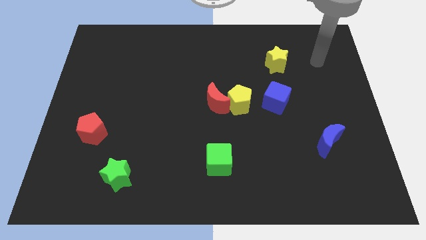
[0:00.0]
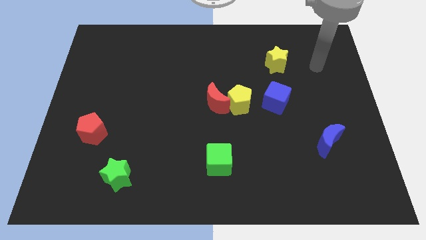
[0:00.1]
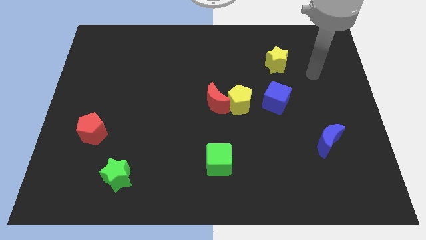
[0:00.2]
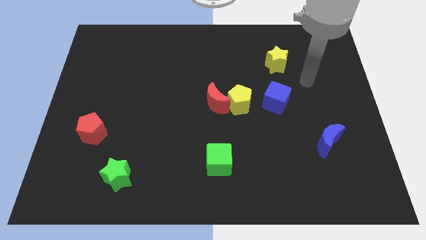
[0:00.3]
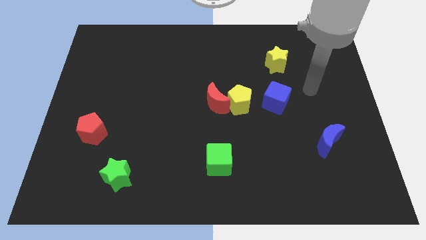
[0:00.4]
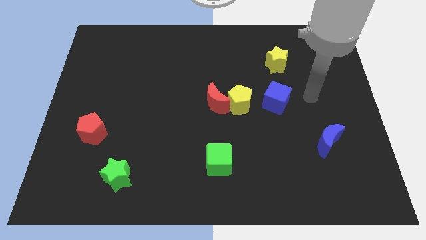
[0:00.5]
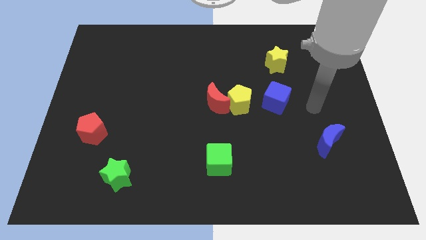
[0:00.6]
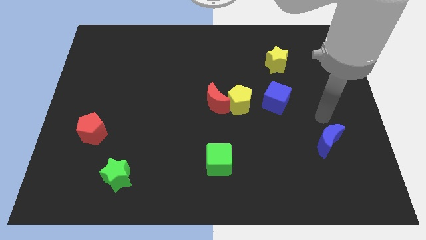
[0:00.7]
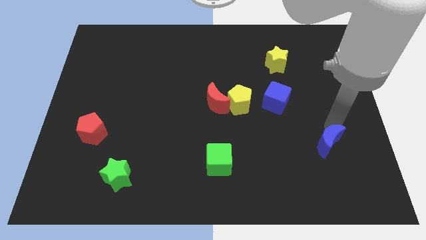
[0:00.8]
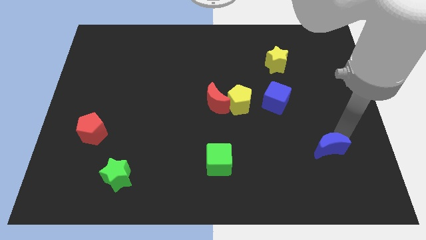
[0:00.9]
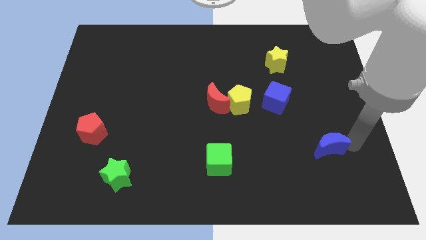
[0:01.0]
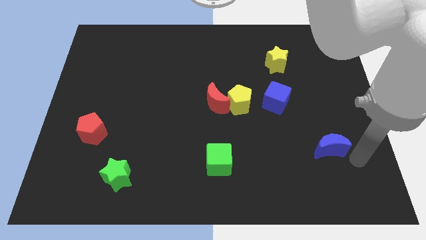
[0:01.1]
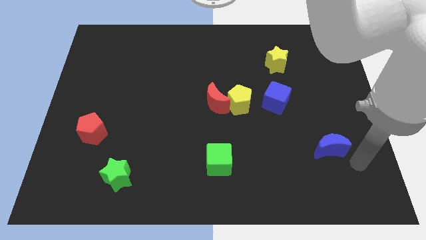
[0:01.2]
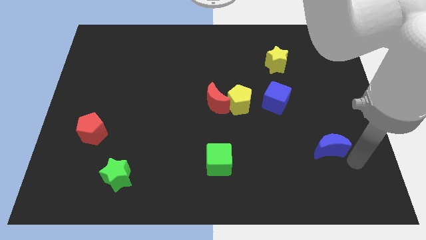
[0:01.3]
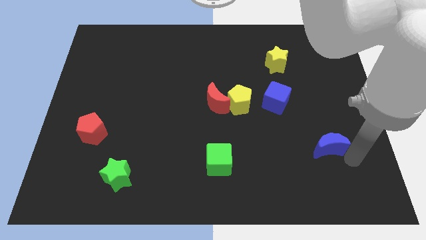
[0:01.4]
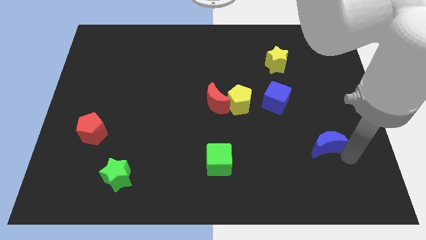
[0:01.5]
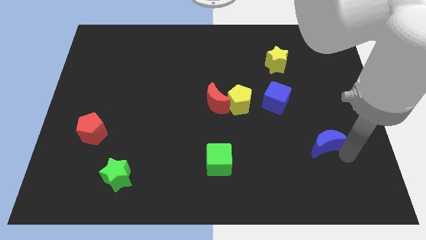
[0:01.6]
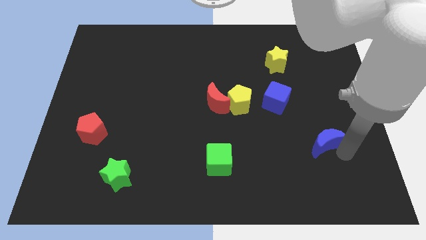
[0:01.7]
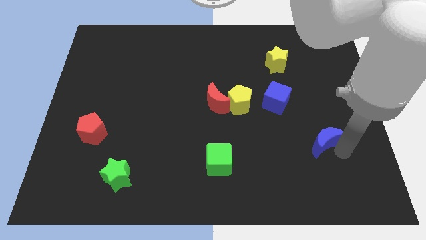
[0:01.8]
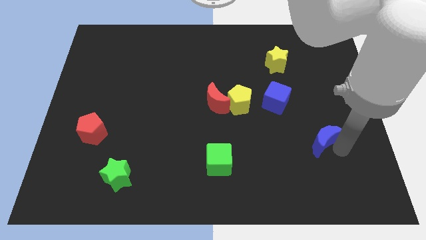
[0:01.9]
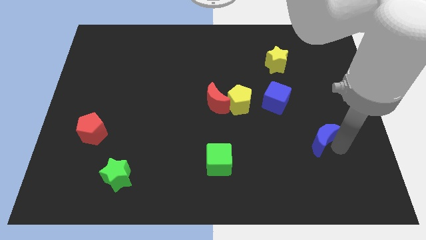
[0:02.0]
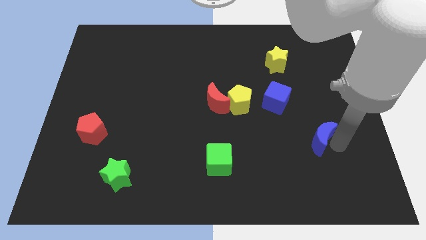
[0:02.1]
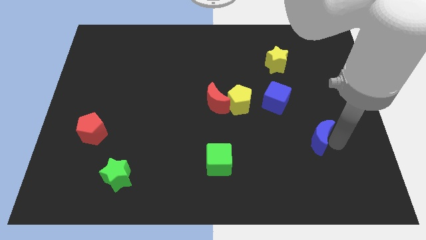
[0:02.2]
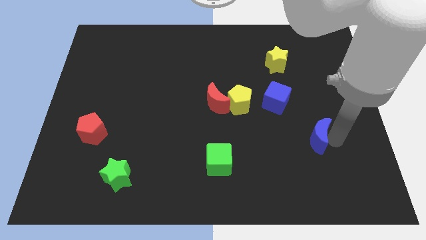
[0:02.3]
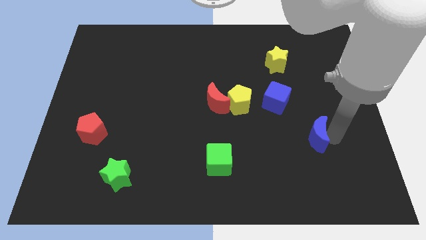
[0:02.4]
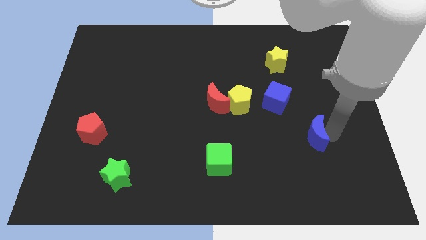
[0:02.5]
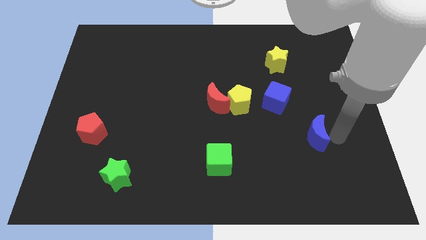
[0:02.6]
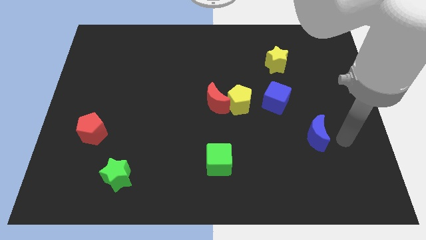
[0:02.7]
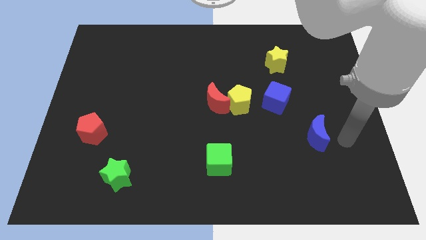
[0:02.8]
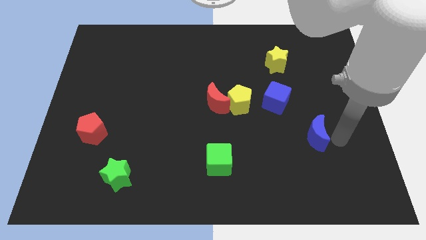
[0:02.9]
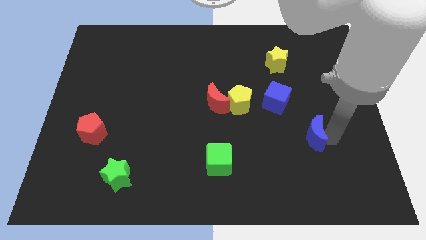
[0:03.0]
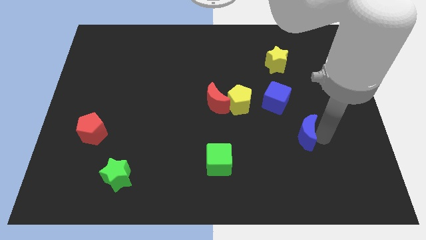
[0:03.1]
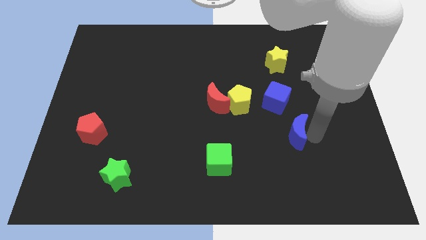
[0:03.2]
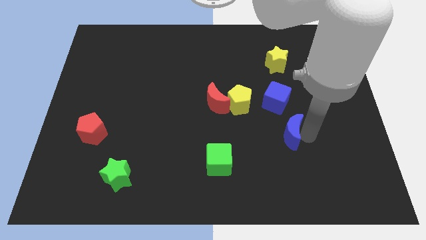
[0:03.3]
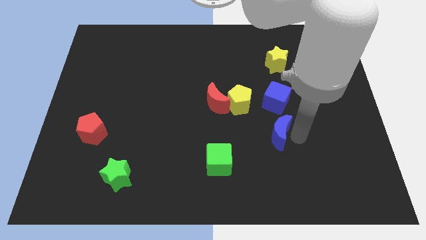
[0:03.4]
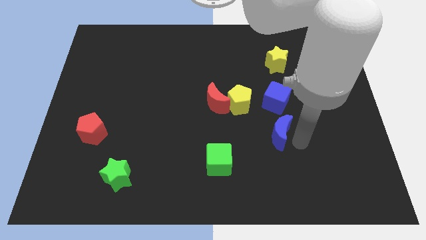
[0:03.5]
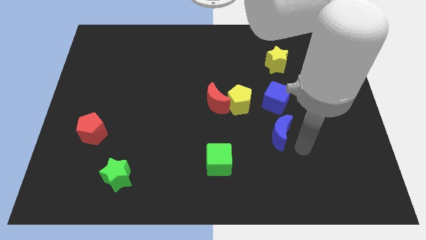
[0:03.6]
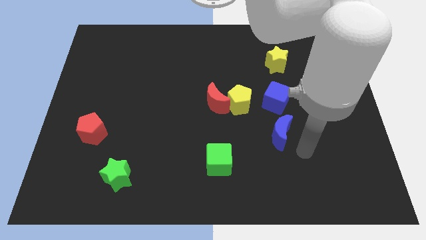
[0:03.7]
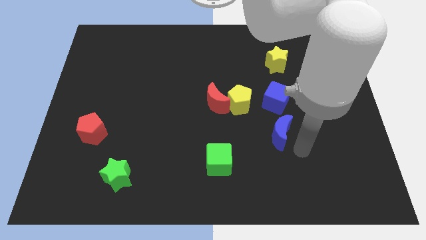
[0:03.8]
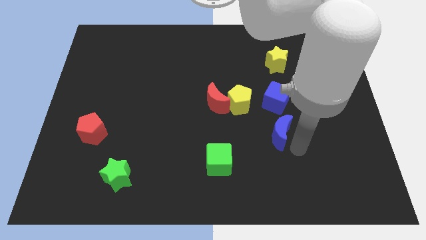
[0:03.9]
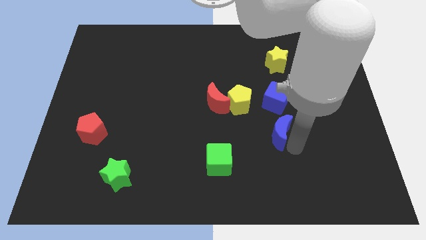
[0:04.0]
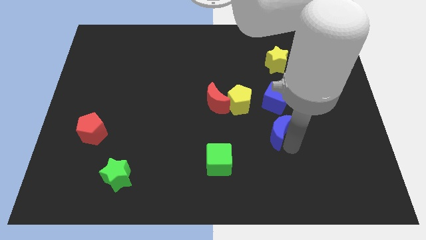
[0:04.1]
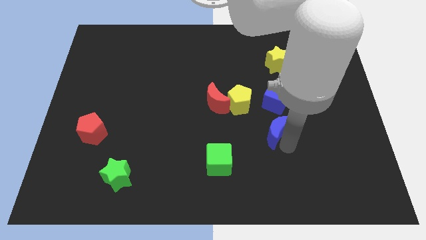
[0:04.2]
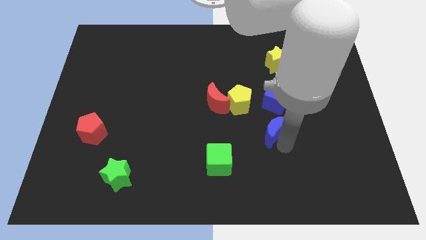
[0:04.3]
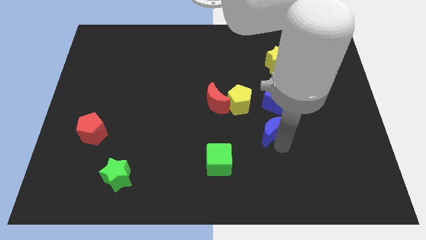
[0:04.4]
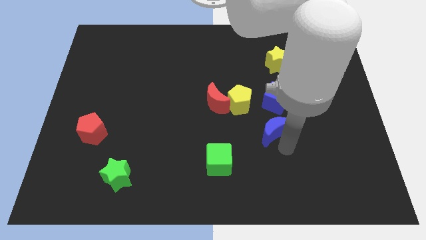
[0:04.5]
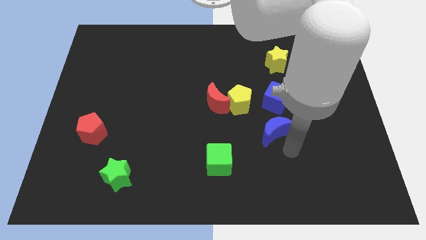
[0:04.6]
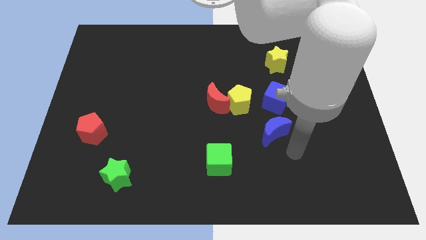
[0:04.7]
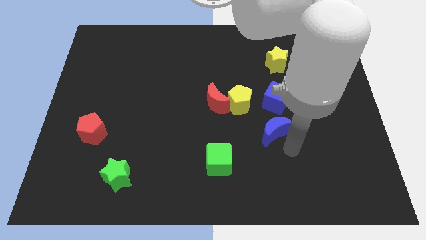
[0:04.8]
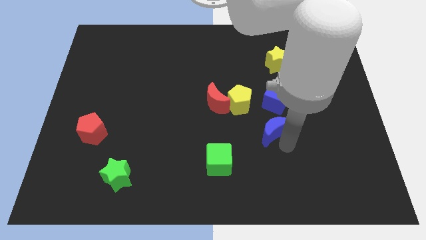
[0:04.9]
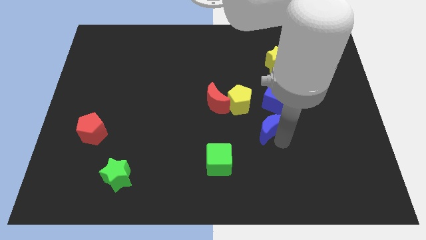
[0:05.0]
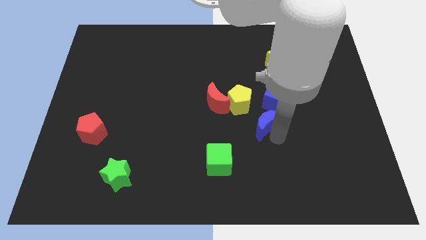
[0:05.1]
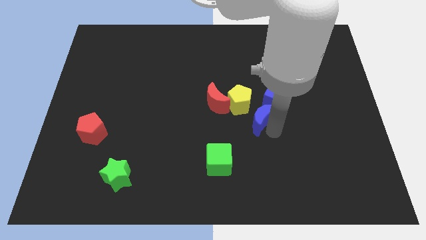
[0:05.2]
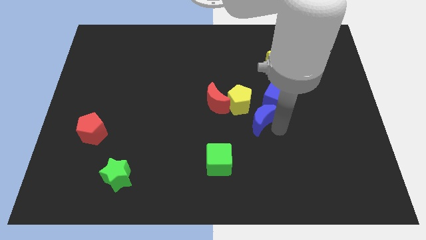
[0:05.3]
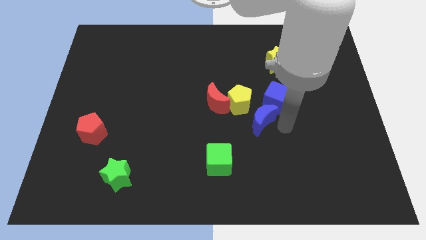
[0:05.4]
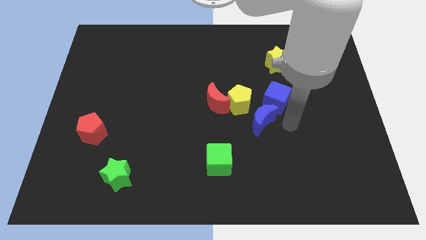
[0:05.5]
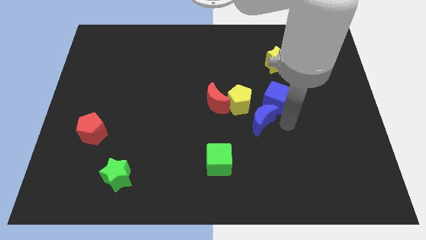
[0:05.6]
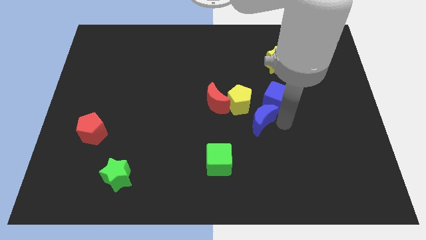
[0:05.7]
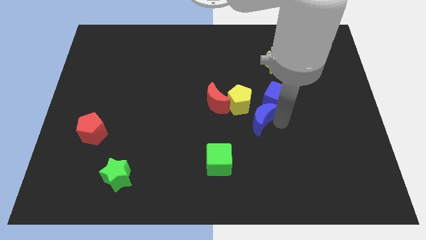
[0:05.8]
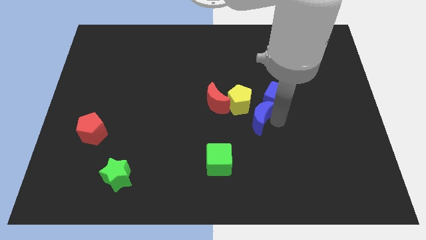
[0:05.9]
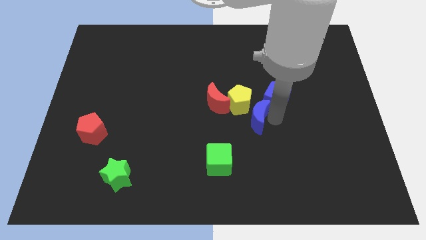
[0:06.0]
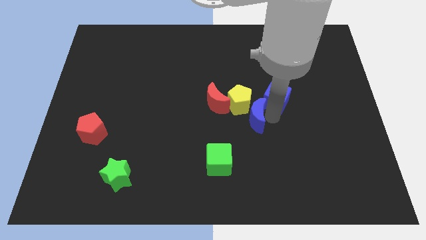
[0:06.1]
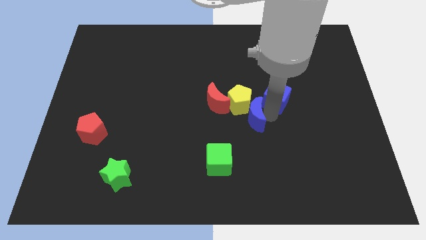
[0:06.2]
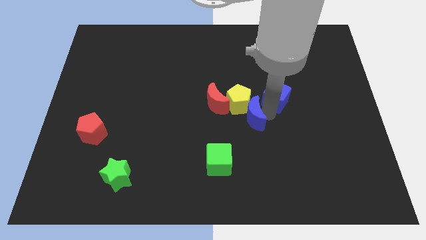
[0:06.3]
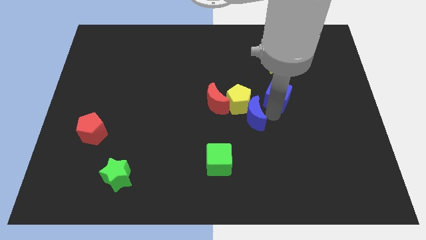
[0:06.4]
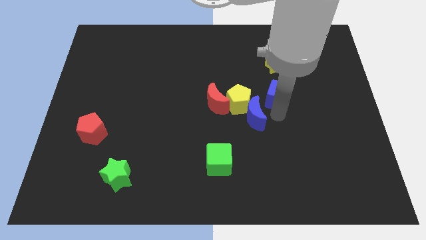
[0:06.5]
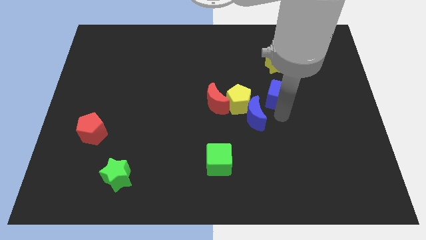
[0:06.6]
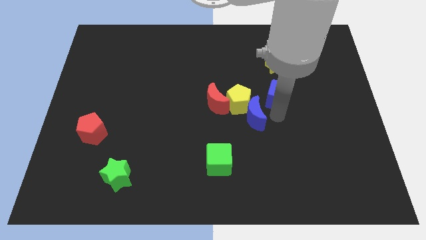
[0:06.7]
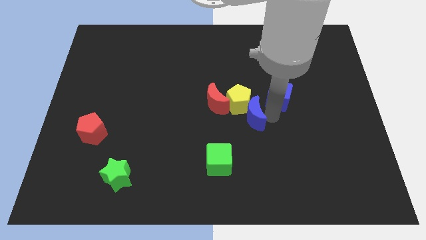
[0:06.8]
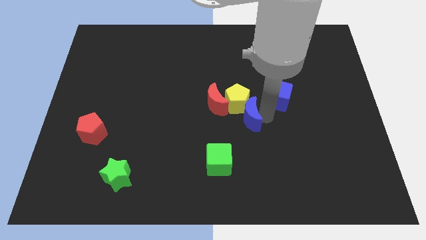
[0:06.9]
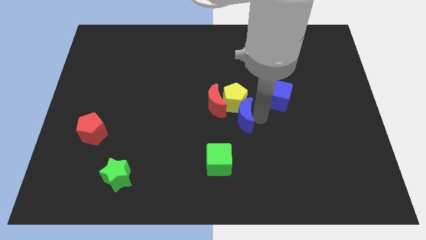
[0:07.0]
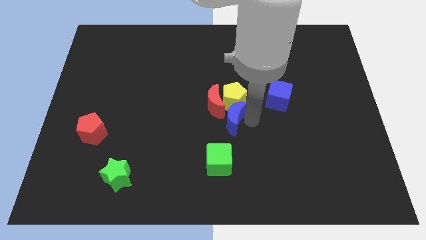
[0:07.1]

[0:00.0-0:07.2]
move the blue moon towards the red moon

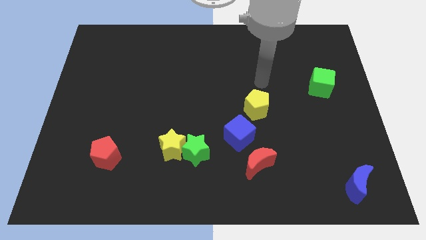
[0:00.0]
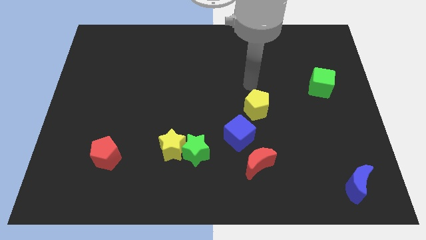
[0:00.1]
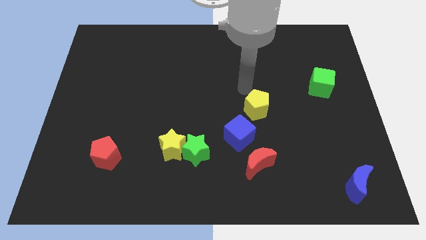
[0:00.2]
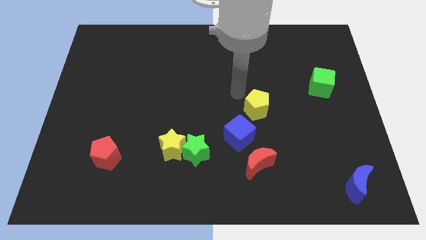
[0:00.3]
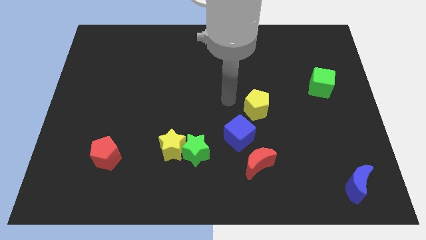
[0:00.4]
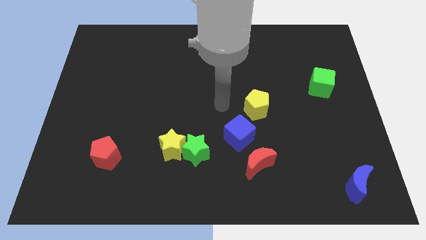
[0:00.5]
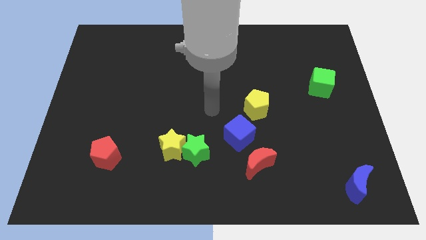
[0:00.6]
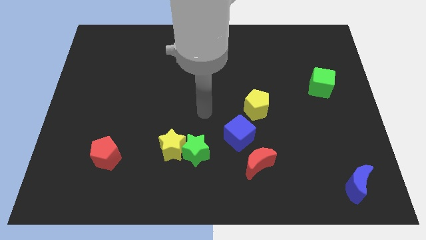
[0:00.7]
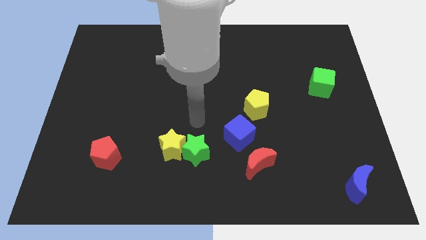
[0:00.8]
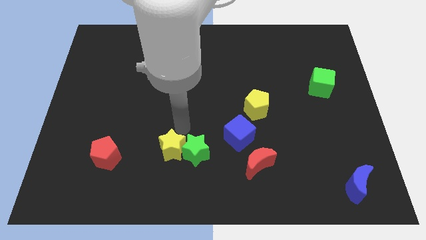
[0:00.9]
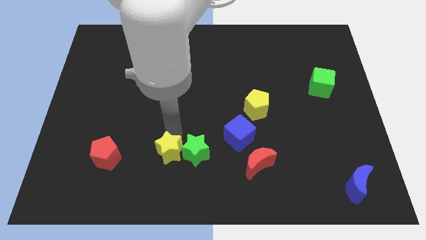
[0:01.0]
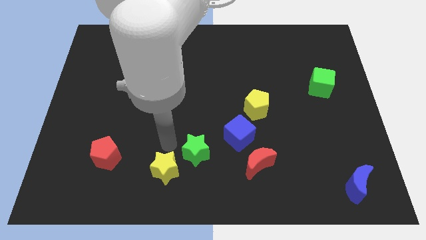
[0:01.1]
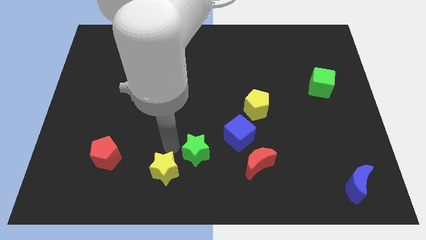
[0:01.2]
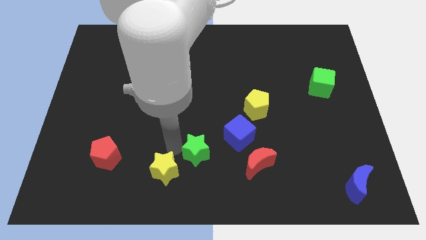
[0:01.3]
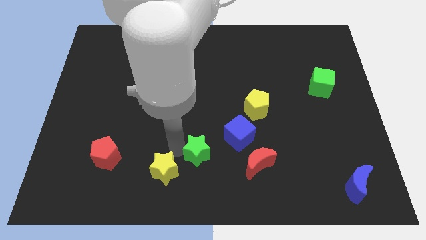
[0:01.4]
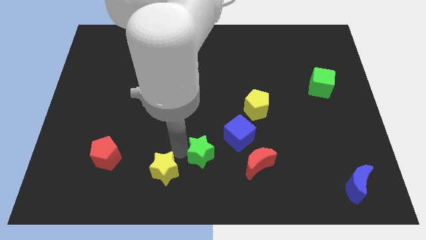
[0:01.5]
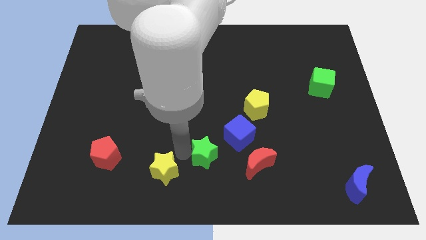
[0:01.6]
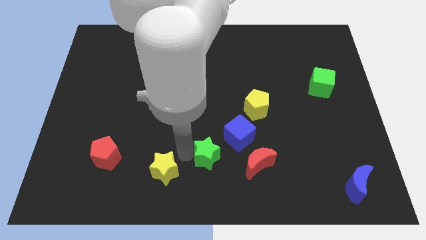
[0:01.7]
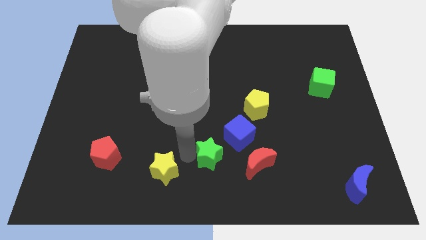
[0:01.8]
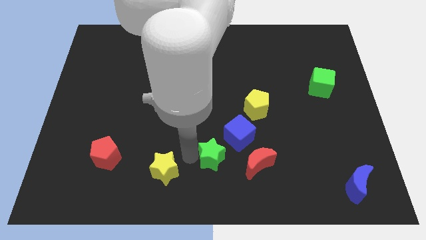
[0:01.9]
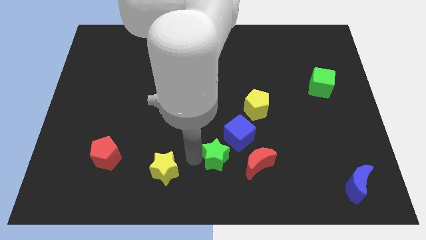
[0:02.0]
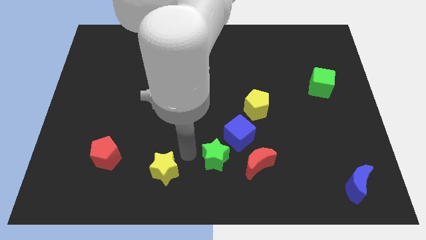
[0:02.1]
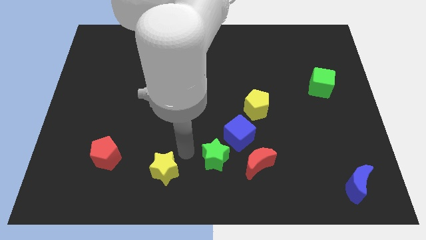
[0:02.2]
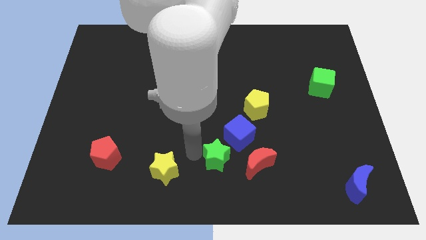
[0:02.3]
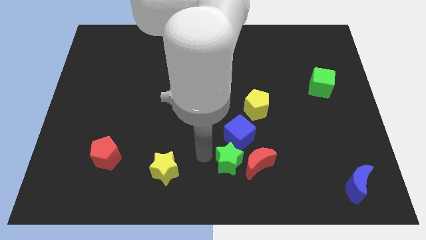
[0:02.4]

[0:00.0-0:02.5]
put the green star close to the red moon
